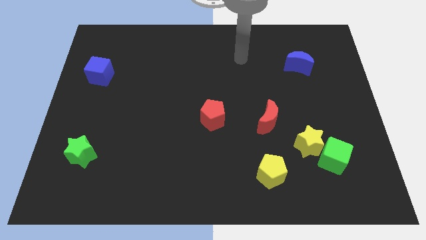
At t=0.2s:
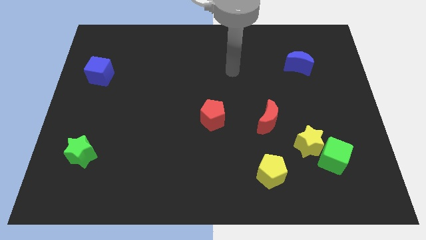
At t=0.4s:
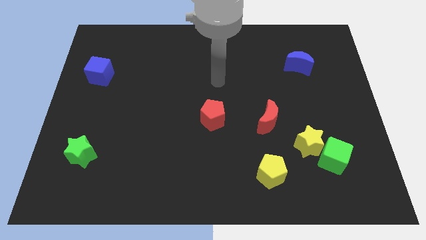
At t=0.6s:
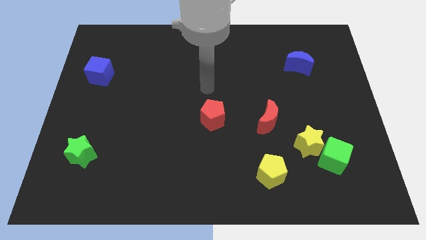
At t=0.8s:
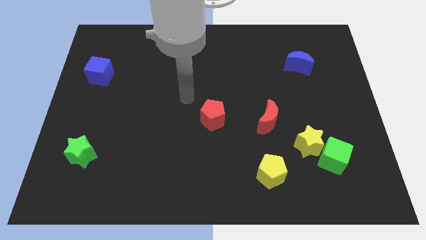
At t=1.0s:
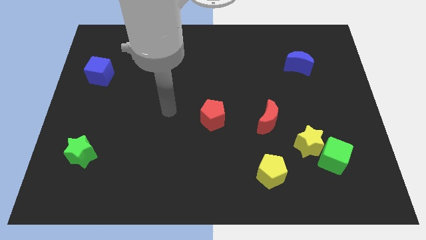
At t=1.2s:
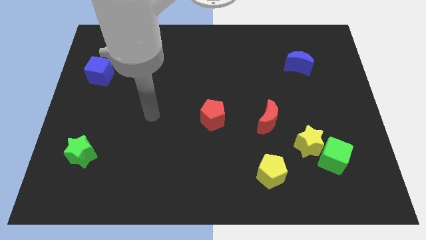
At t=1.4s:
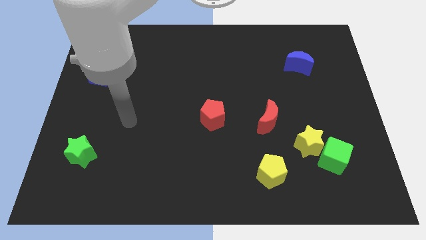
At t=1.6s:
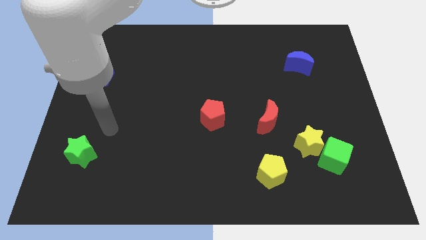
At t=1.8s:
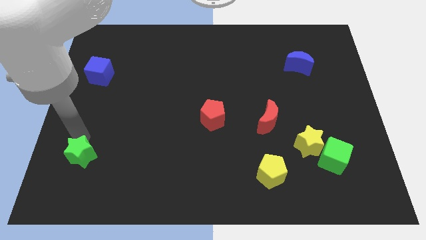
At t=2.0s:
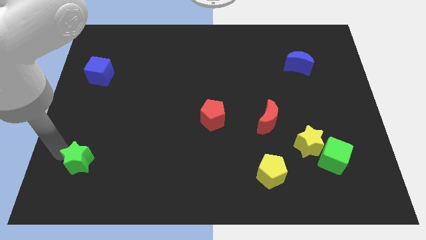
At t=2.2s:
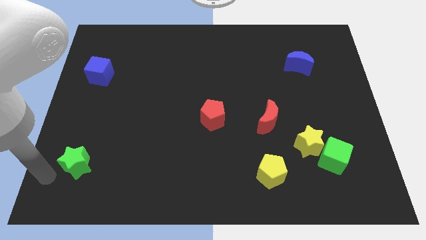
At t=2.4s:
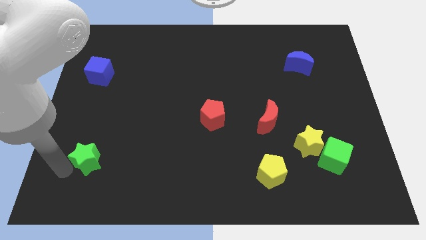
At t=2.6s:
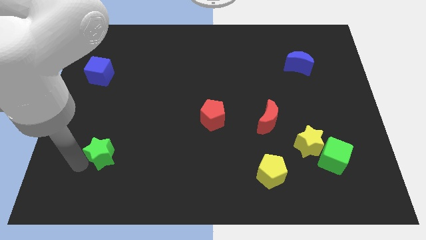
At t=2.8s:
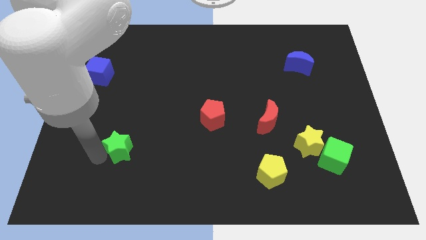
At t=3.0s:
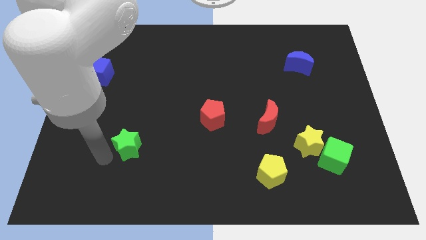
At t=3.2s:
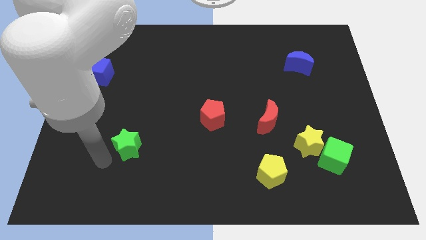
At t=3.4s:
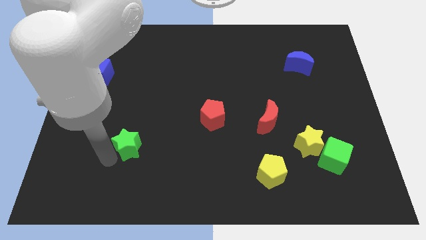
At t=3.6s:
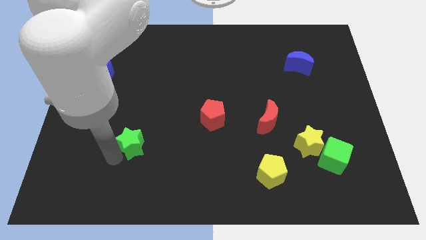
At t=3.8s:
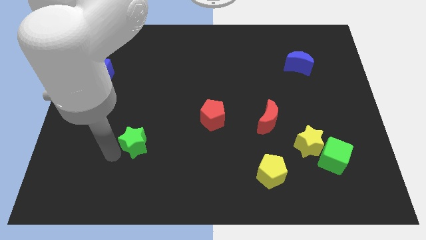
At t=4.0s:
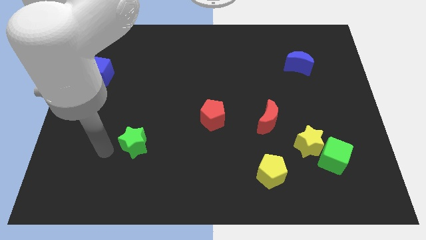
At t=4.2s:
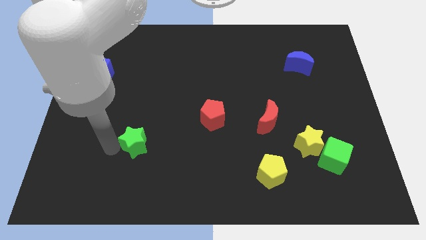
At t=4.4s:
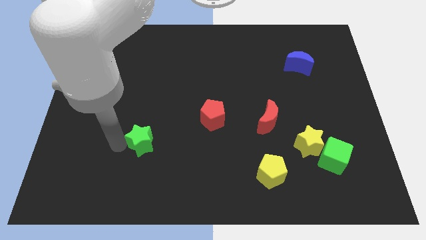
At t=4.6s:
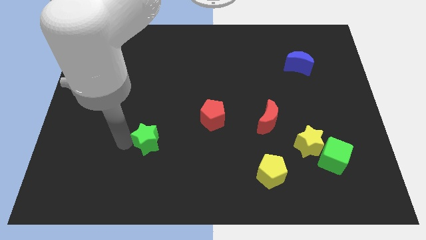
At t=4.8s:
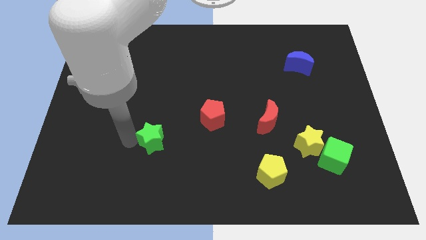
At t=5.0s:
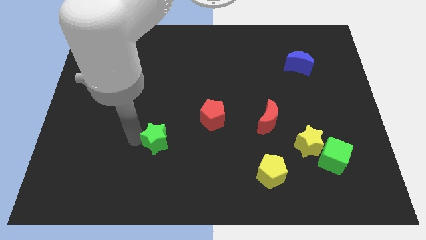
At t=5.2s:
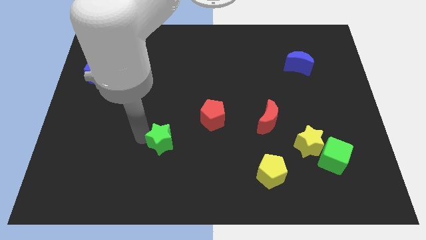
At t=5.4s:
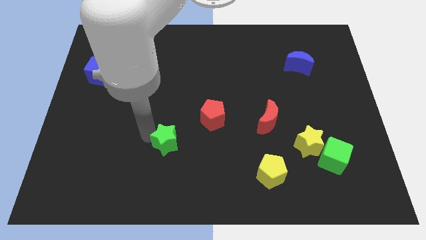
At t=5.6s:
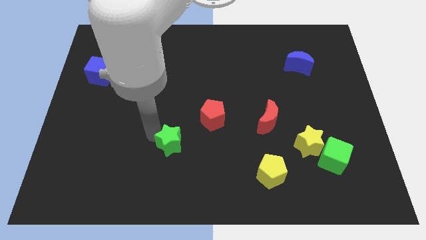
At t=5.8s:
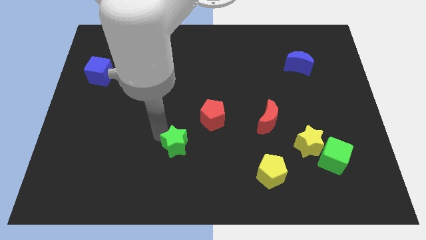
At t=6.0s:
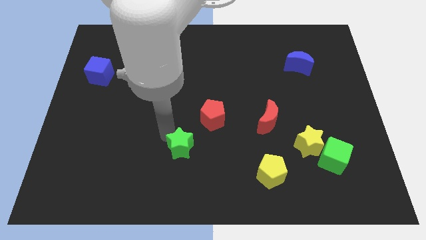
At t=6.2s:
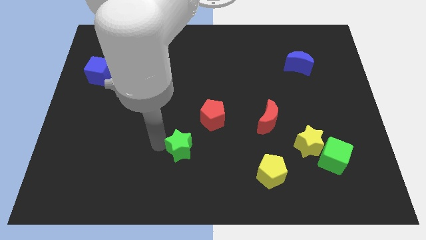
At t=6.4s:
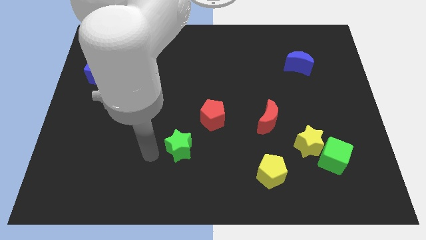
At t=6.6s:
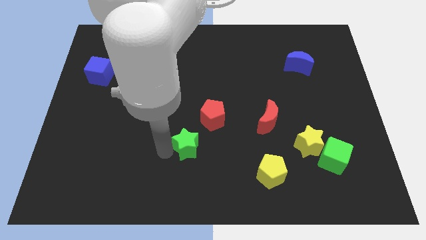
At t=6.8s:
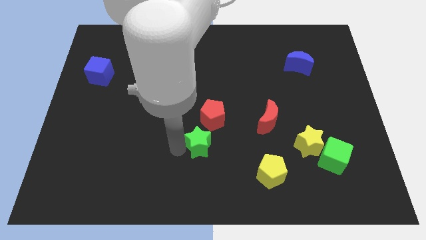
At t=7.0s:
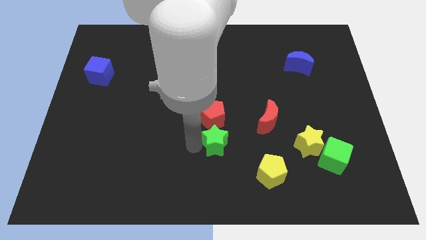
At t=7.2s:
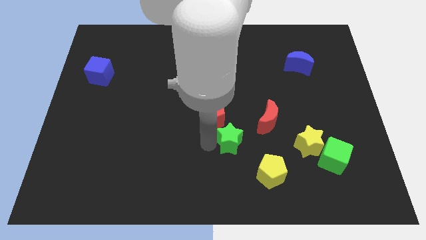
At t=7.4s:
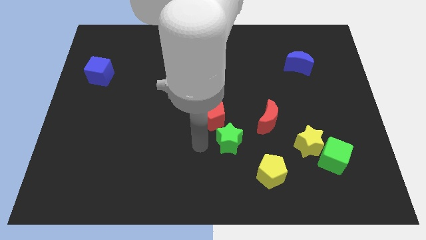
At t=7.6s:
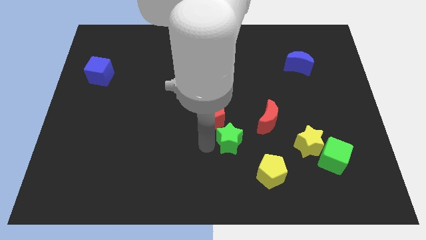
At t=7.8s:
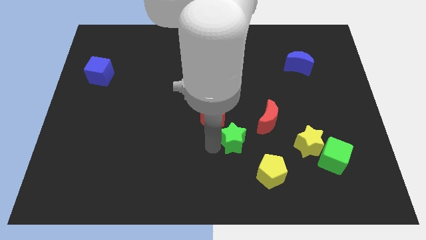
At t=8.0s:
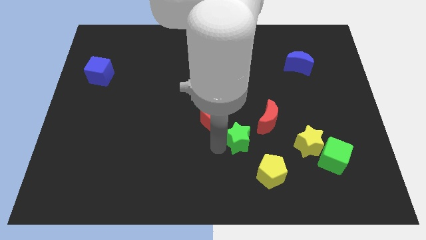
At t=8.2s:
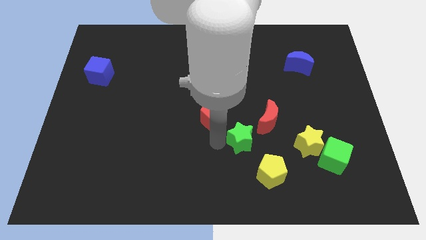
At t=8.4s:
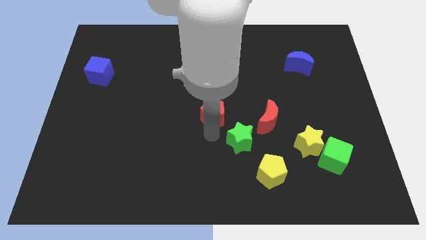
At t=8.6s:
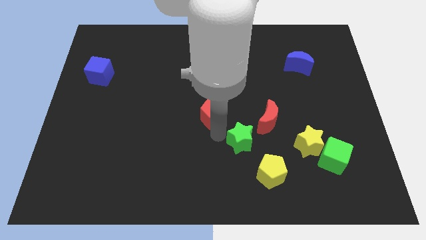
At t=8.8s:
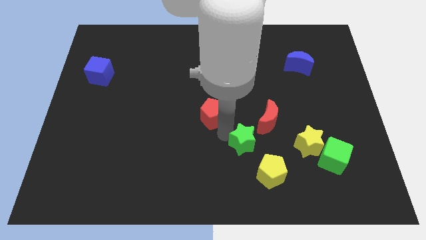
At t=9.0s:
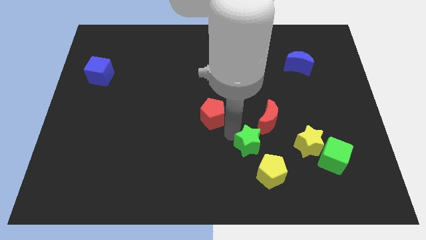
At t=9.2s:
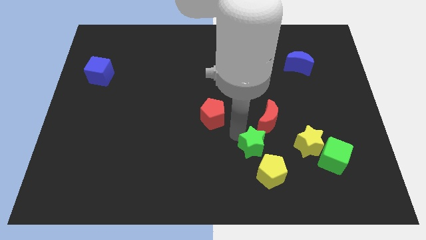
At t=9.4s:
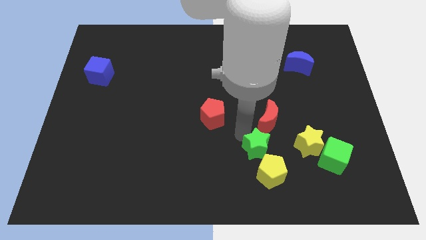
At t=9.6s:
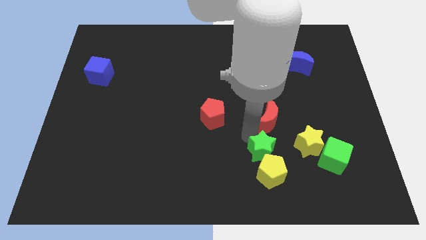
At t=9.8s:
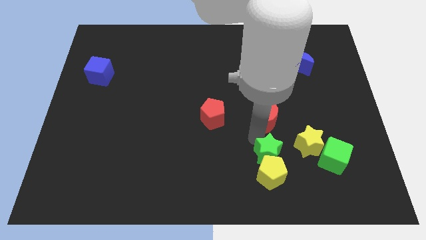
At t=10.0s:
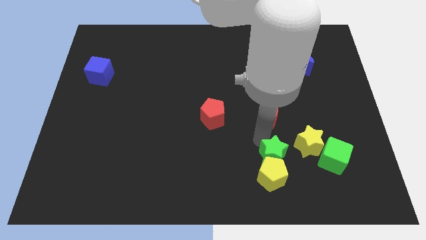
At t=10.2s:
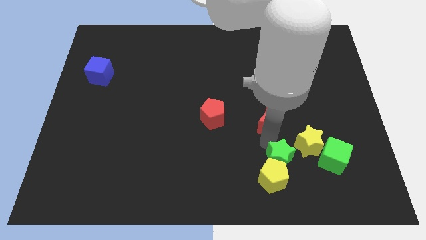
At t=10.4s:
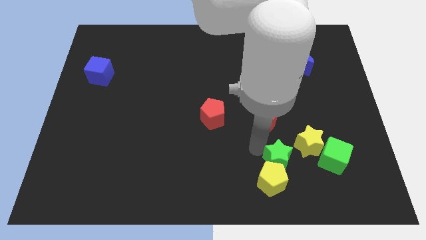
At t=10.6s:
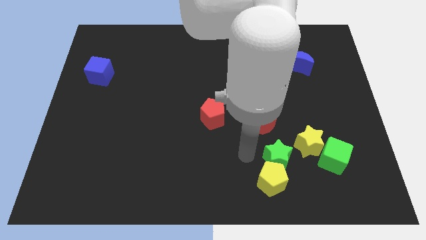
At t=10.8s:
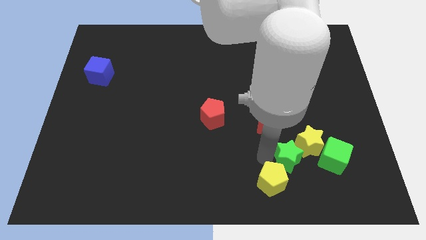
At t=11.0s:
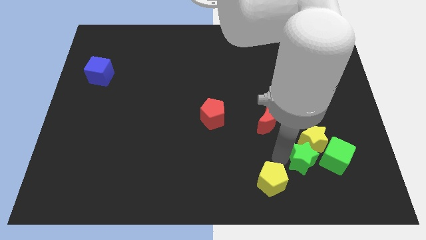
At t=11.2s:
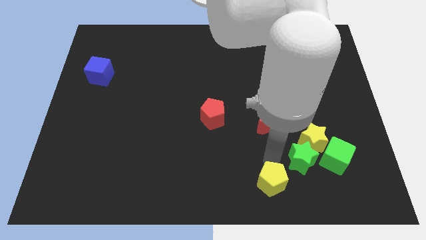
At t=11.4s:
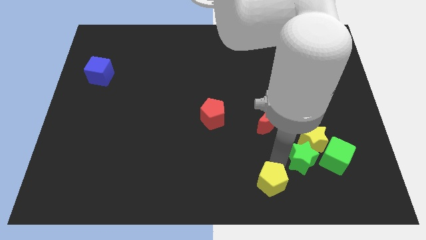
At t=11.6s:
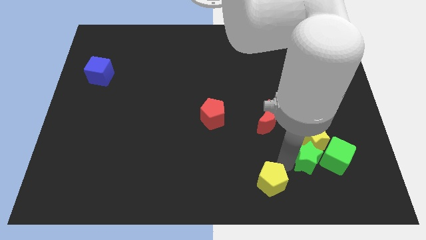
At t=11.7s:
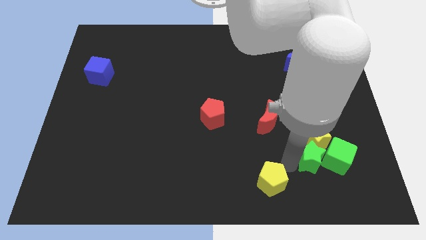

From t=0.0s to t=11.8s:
slide the green star next to the green cube
